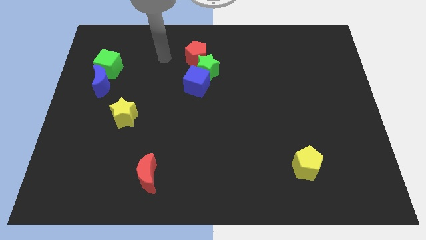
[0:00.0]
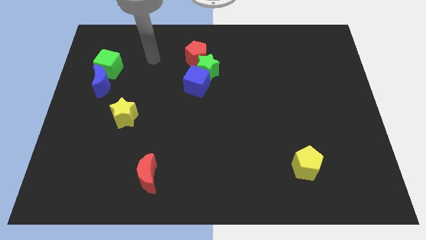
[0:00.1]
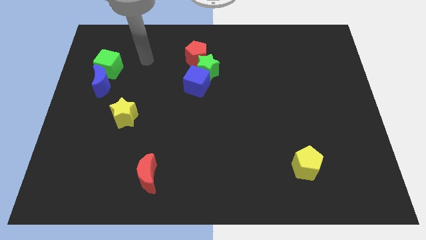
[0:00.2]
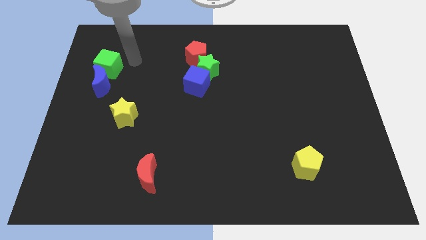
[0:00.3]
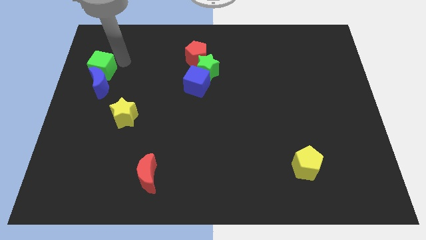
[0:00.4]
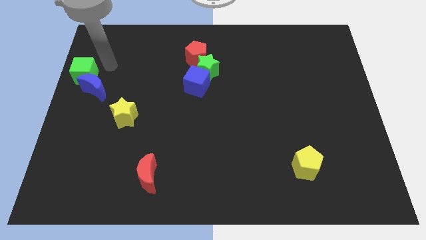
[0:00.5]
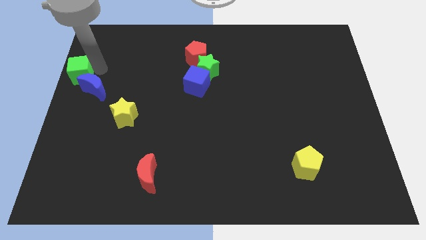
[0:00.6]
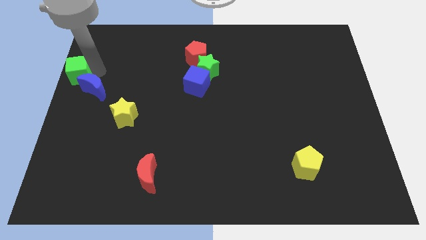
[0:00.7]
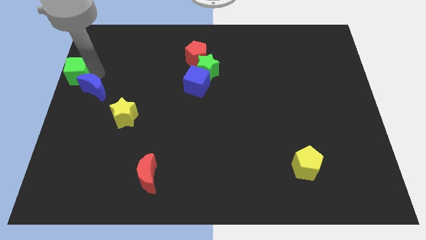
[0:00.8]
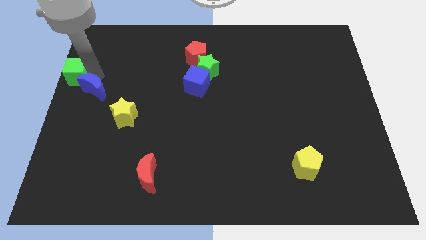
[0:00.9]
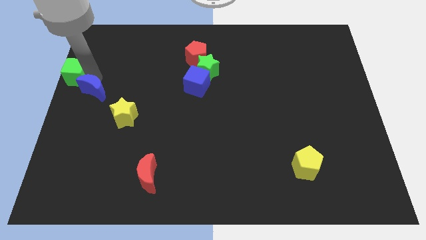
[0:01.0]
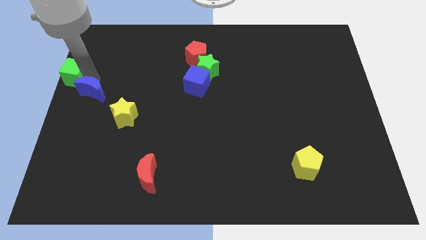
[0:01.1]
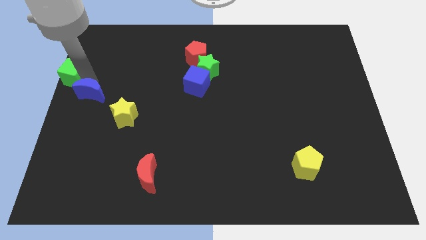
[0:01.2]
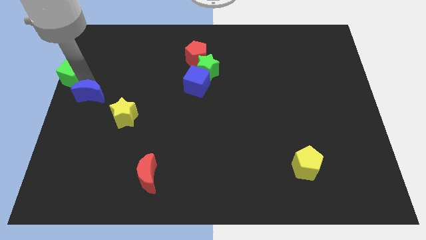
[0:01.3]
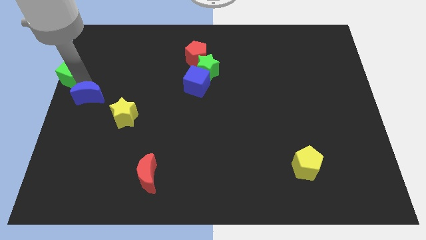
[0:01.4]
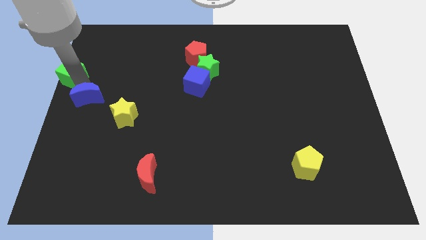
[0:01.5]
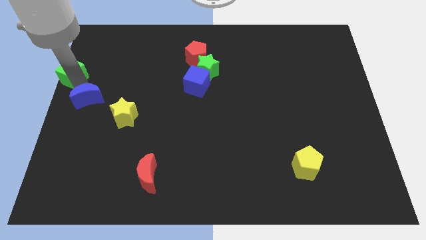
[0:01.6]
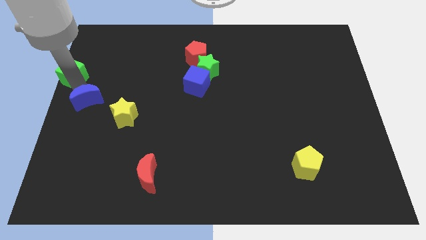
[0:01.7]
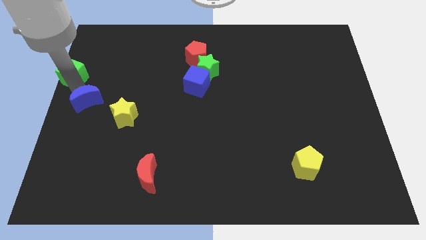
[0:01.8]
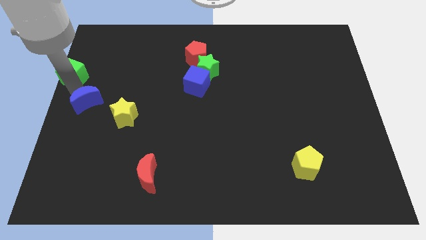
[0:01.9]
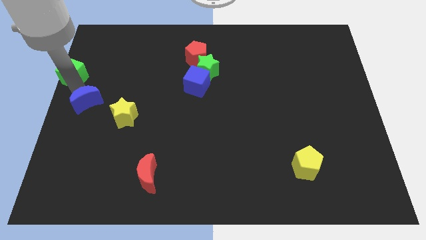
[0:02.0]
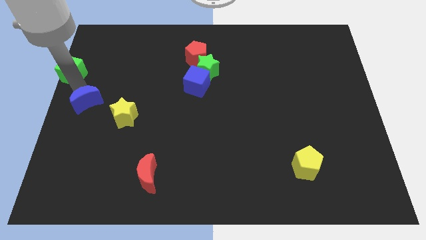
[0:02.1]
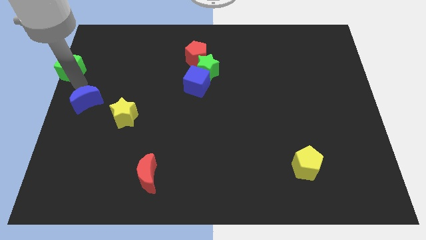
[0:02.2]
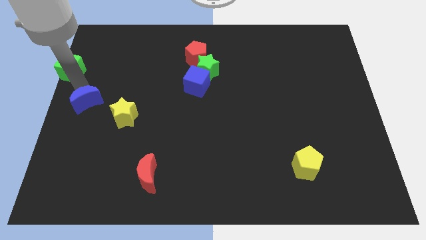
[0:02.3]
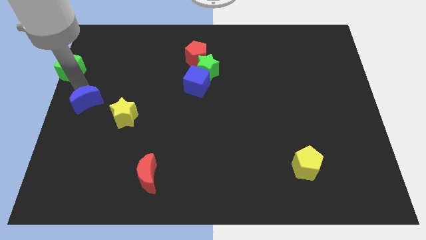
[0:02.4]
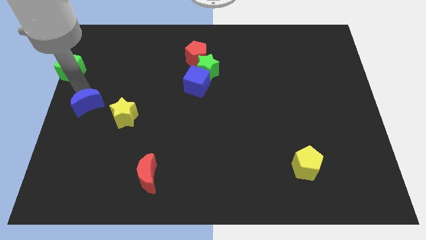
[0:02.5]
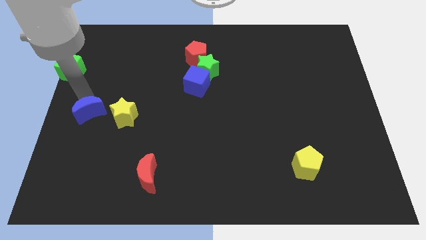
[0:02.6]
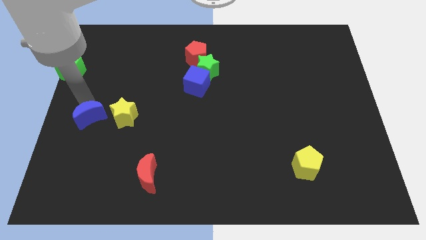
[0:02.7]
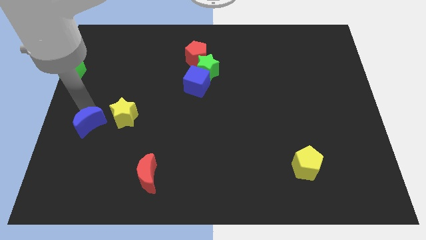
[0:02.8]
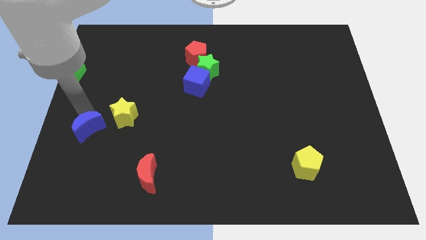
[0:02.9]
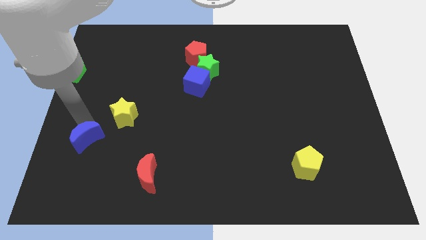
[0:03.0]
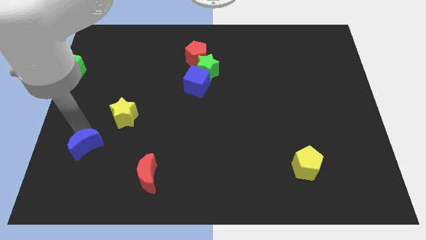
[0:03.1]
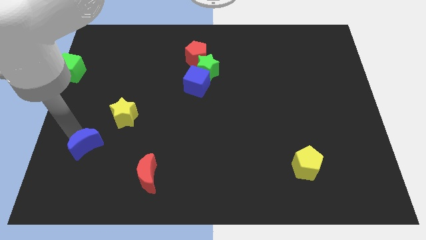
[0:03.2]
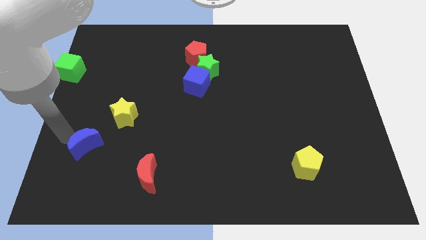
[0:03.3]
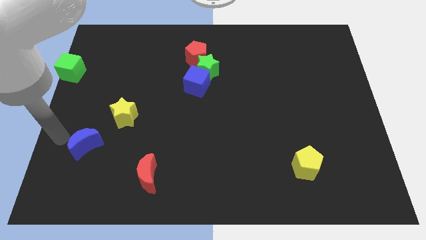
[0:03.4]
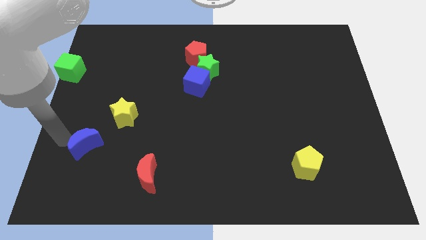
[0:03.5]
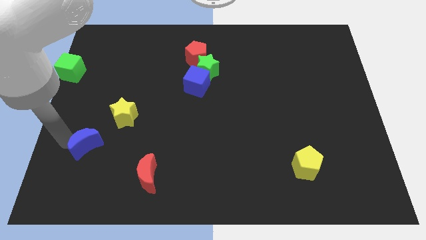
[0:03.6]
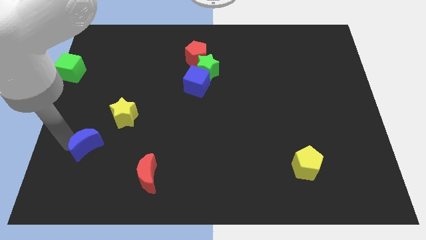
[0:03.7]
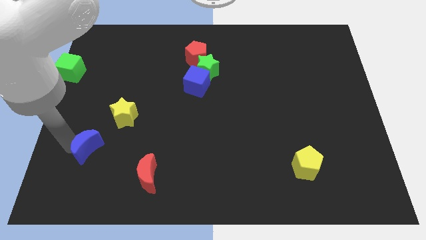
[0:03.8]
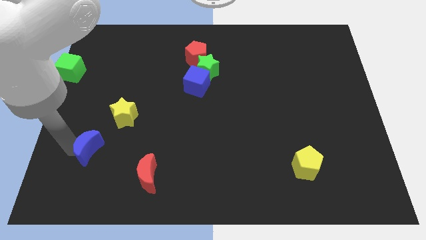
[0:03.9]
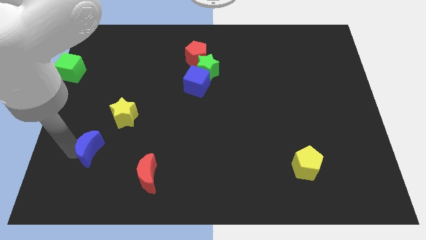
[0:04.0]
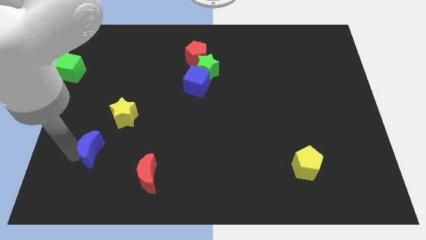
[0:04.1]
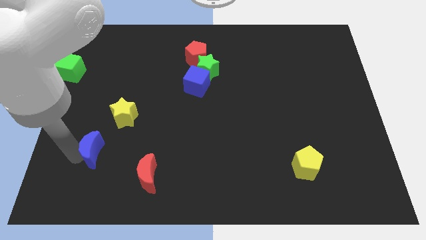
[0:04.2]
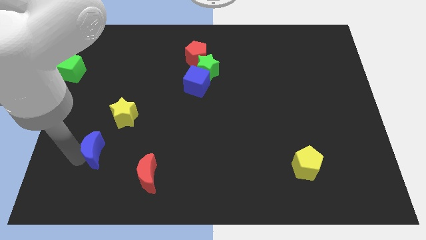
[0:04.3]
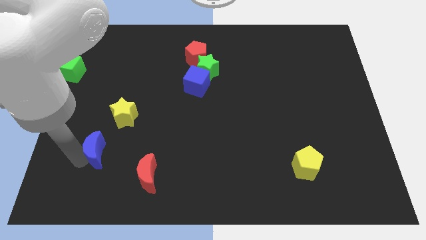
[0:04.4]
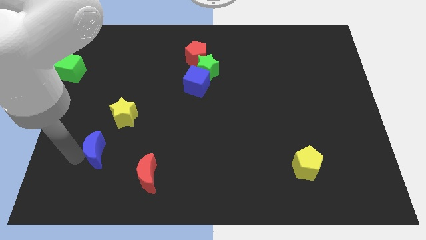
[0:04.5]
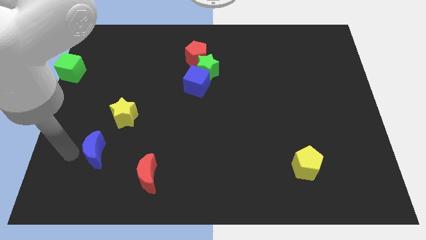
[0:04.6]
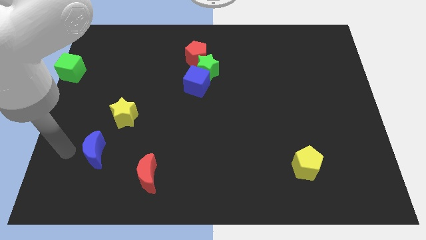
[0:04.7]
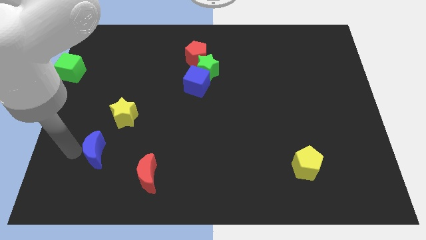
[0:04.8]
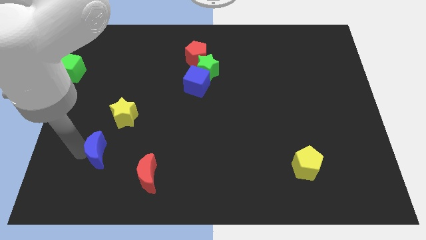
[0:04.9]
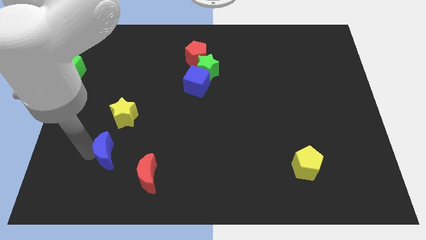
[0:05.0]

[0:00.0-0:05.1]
slide the blue moon to the top left side of the red moon
